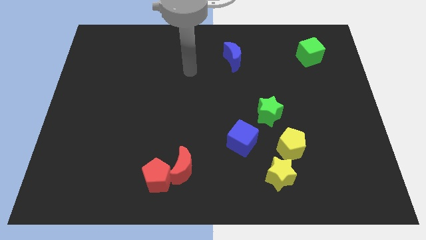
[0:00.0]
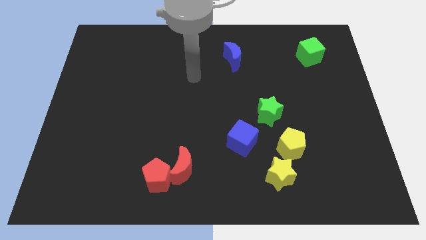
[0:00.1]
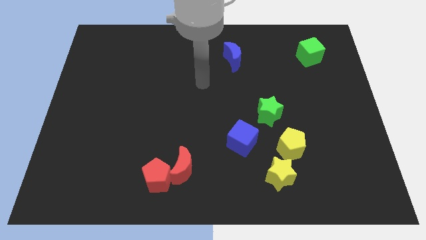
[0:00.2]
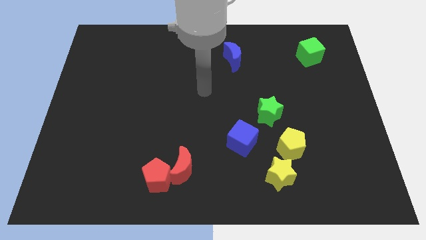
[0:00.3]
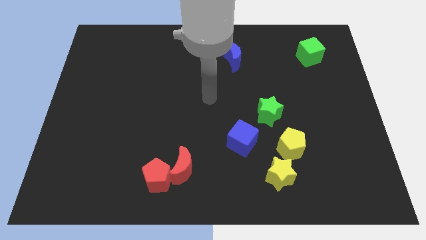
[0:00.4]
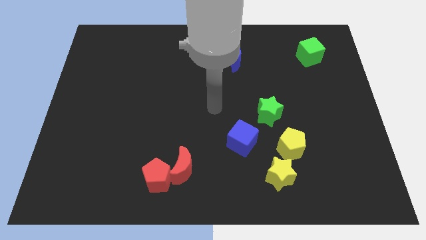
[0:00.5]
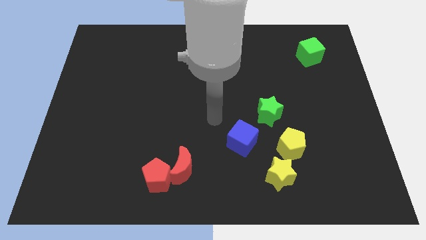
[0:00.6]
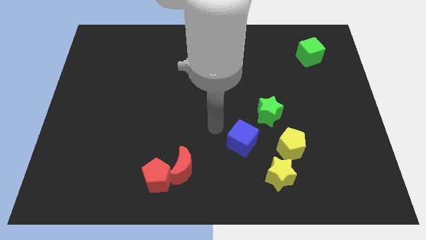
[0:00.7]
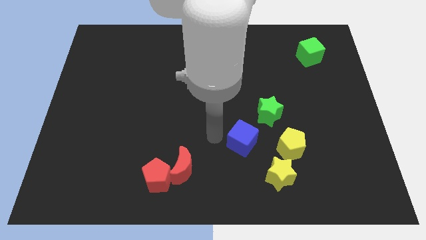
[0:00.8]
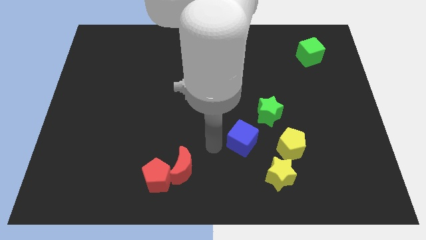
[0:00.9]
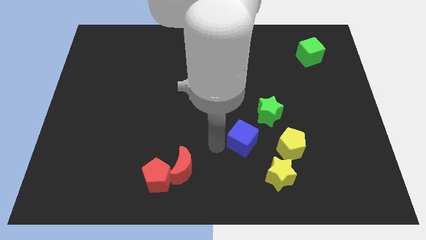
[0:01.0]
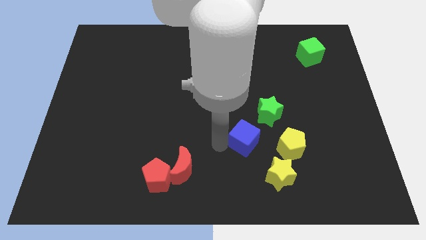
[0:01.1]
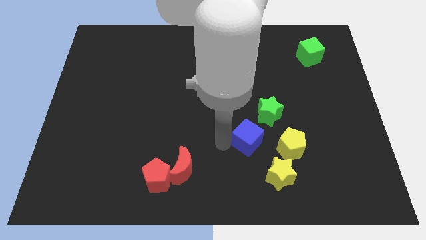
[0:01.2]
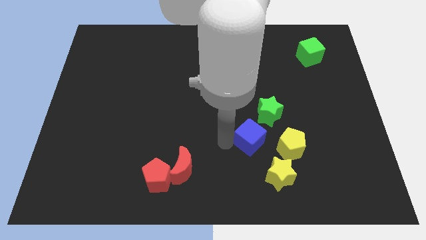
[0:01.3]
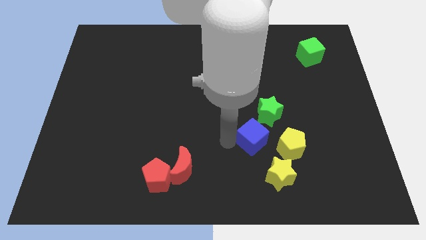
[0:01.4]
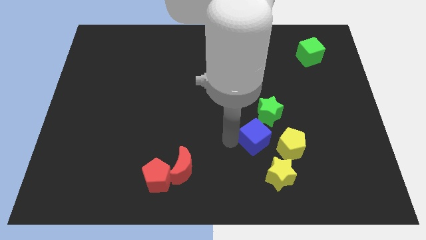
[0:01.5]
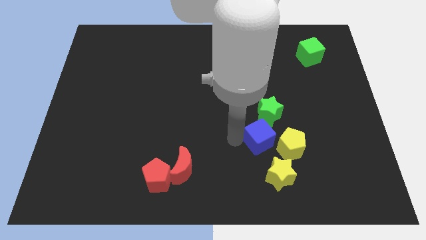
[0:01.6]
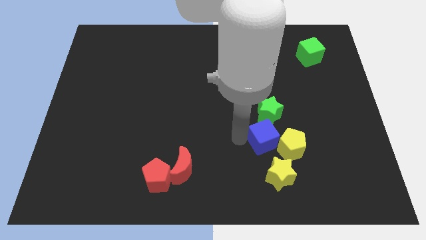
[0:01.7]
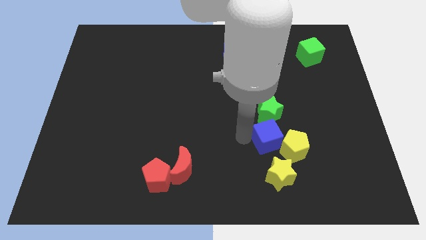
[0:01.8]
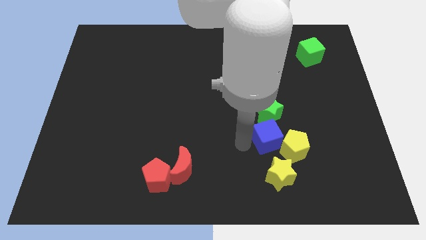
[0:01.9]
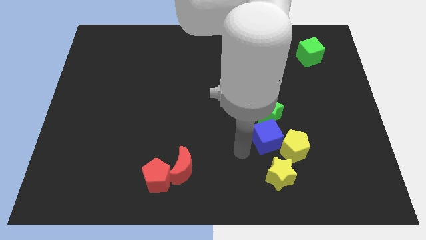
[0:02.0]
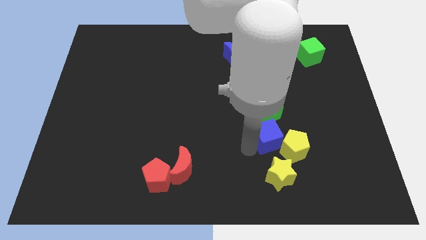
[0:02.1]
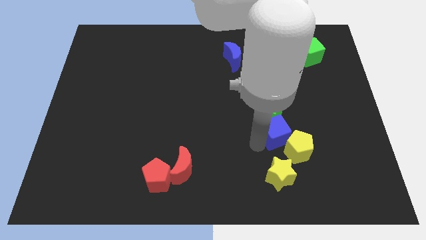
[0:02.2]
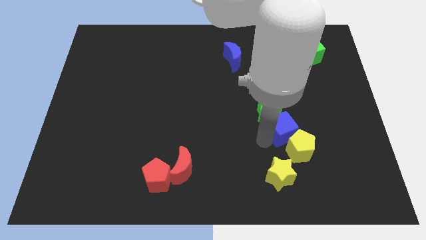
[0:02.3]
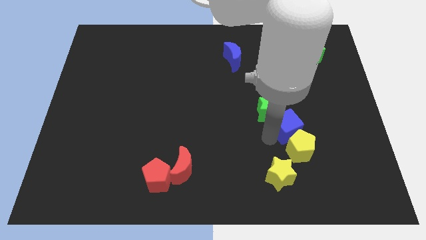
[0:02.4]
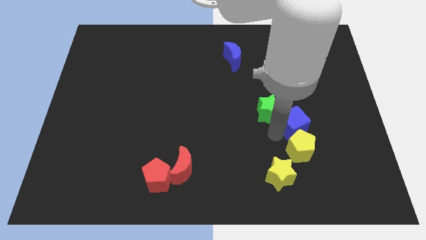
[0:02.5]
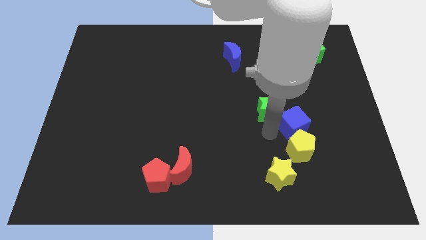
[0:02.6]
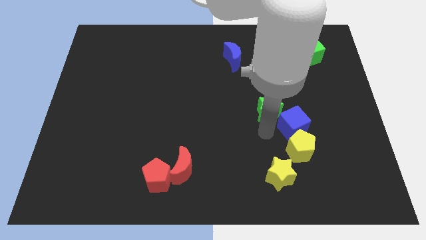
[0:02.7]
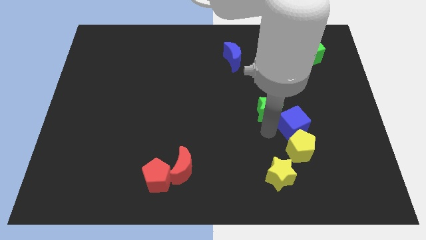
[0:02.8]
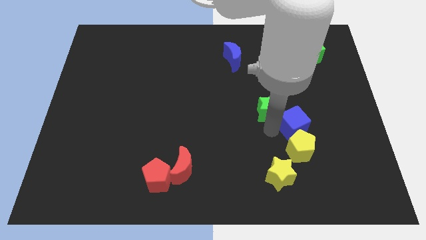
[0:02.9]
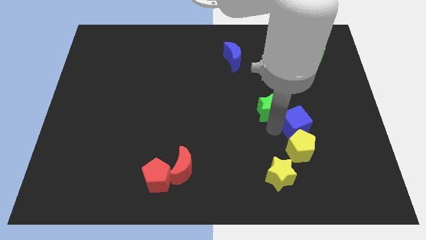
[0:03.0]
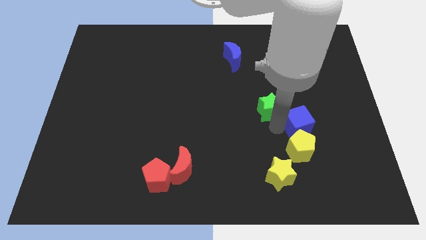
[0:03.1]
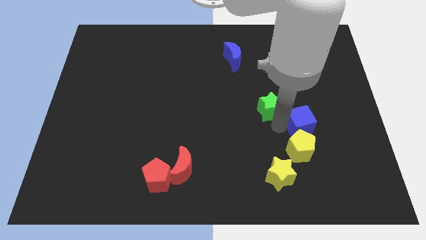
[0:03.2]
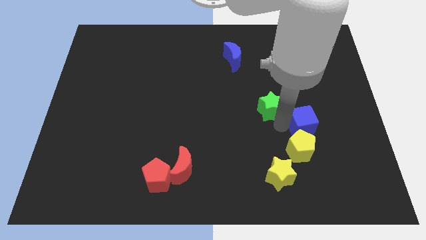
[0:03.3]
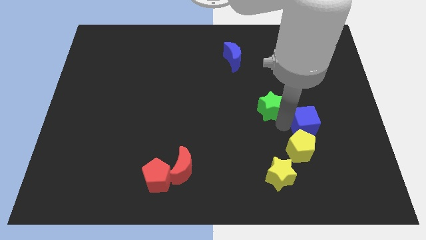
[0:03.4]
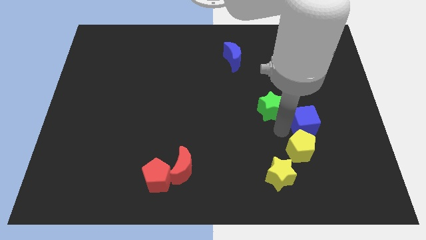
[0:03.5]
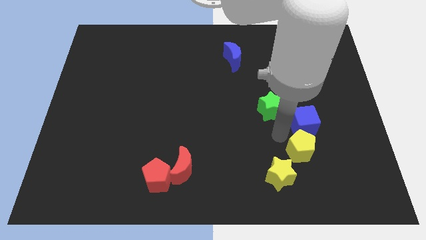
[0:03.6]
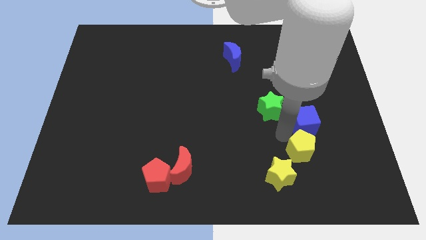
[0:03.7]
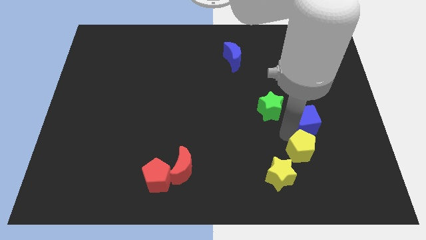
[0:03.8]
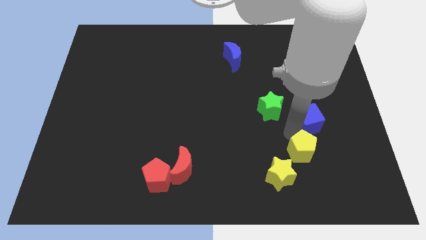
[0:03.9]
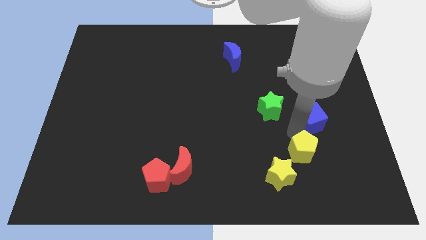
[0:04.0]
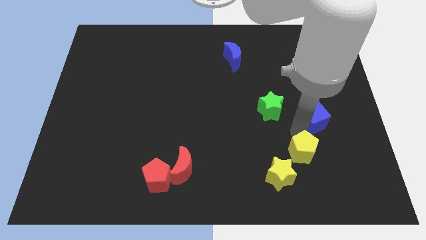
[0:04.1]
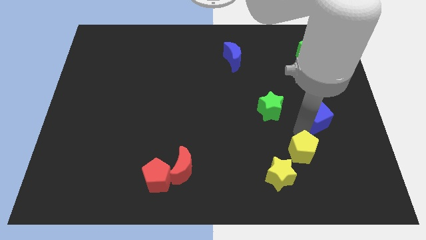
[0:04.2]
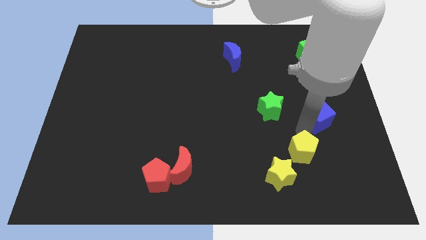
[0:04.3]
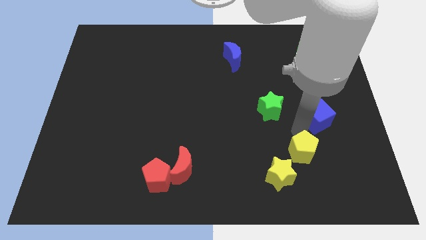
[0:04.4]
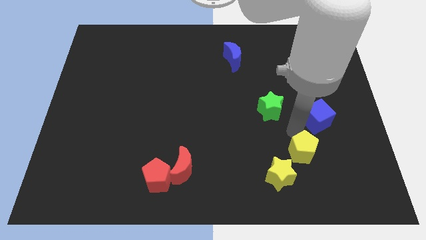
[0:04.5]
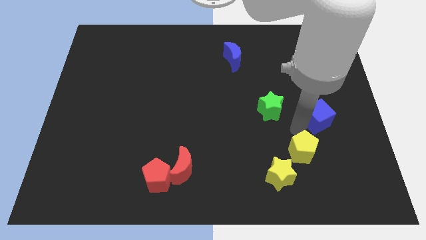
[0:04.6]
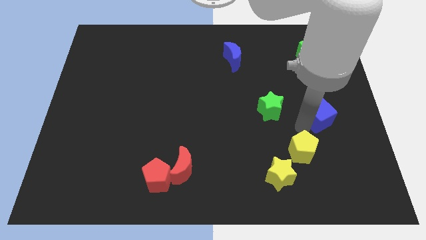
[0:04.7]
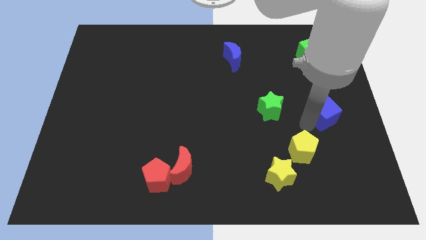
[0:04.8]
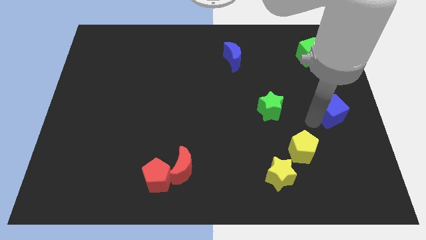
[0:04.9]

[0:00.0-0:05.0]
slide the blue cube to the center right

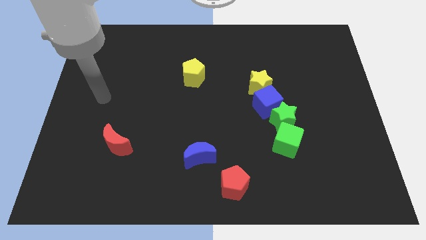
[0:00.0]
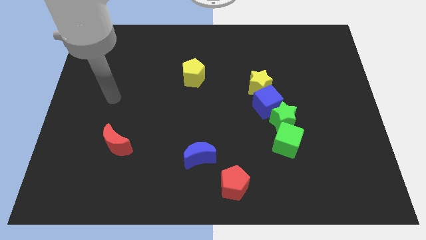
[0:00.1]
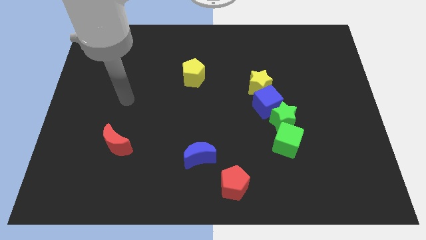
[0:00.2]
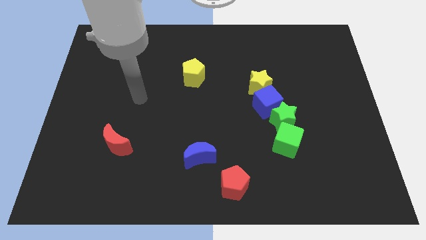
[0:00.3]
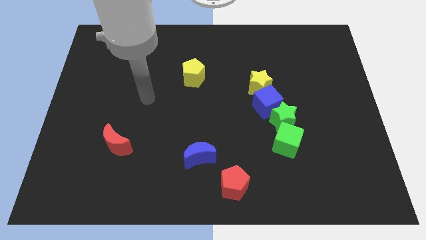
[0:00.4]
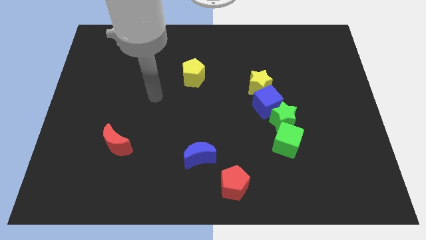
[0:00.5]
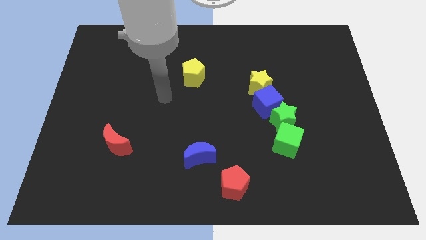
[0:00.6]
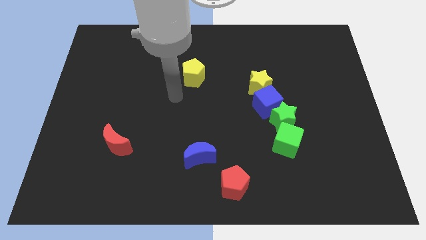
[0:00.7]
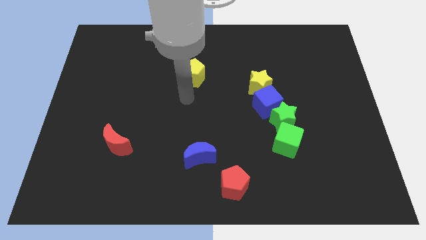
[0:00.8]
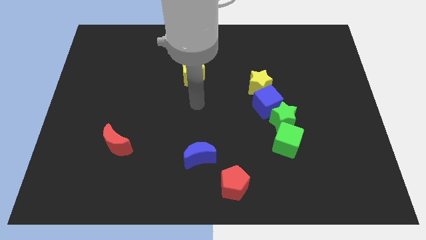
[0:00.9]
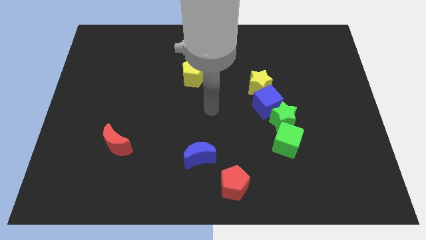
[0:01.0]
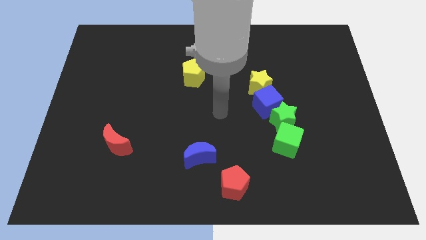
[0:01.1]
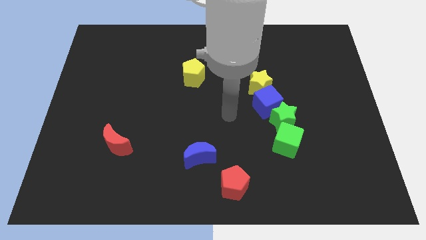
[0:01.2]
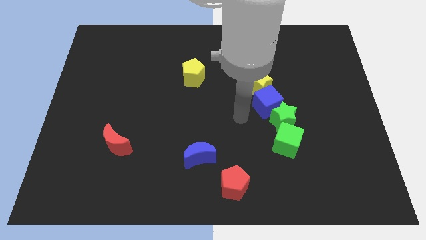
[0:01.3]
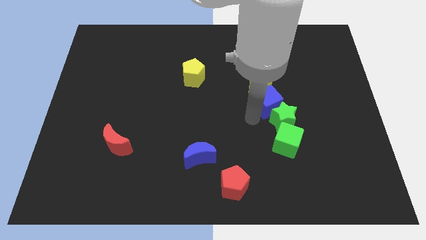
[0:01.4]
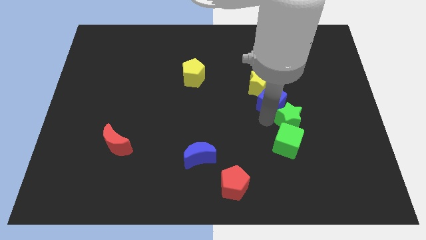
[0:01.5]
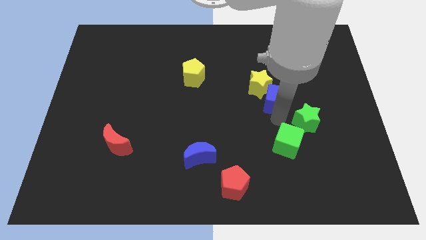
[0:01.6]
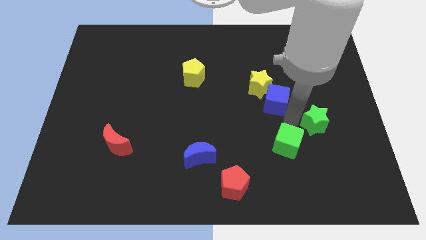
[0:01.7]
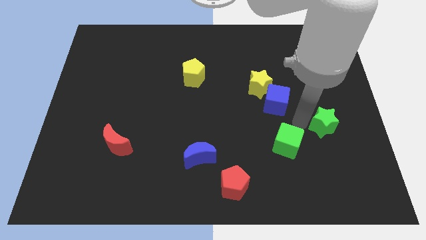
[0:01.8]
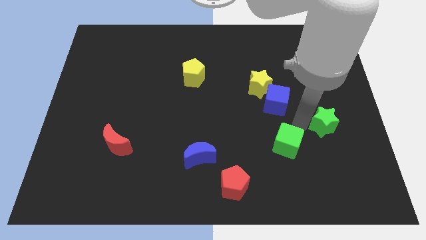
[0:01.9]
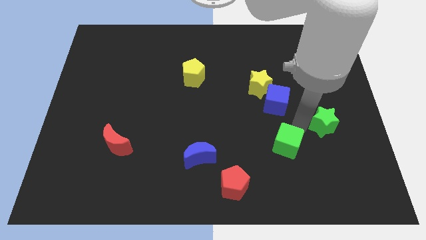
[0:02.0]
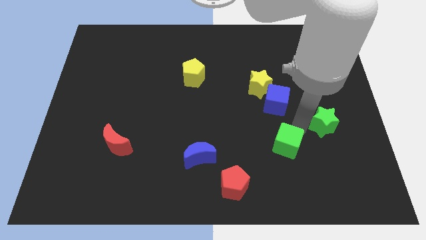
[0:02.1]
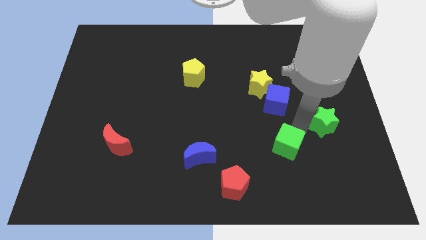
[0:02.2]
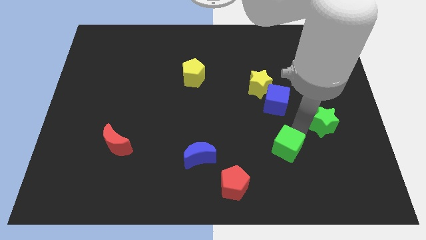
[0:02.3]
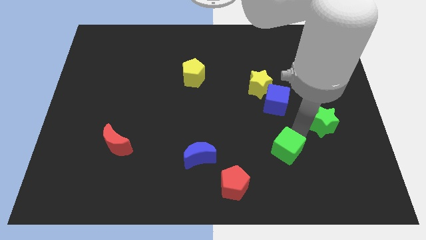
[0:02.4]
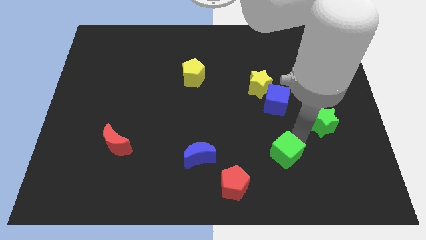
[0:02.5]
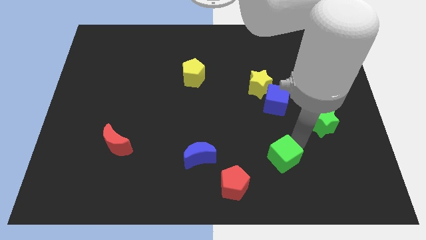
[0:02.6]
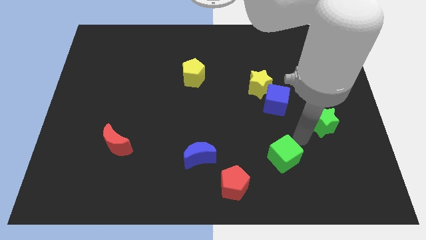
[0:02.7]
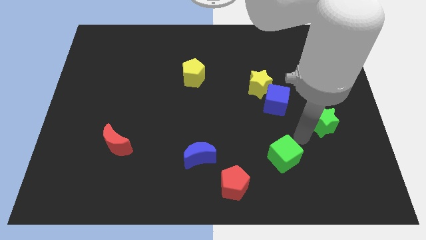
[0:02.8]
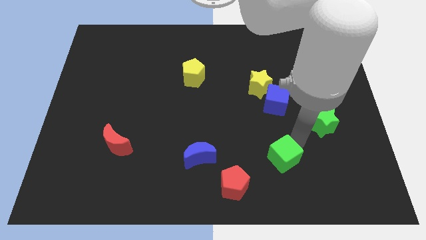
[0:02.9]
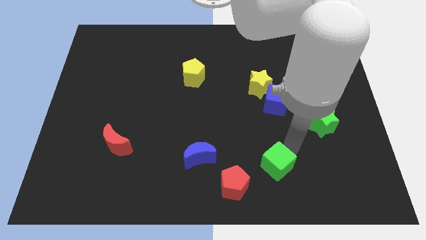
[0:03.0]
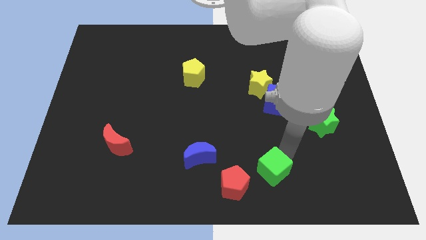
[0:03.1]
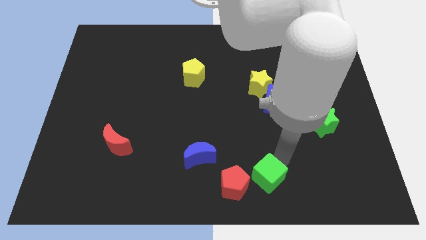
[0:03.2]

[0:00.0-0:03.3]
put the green cube to the bottom
